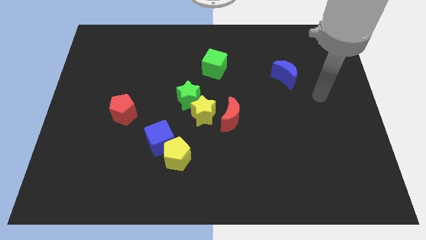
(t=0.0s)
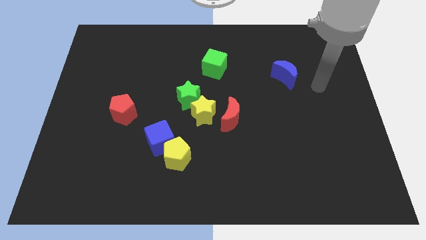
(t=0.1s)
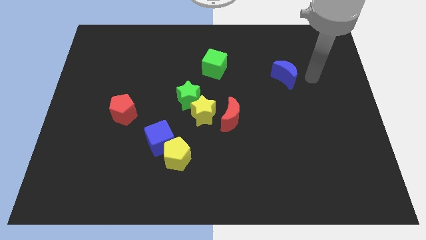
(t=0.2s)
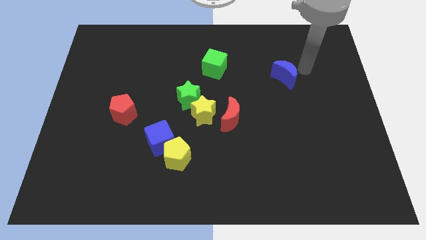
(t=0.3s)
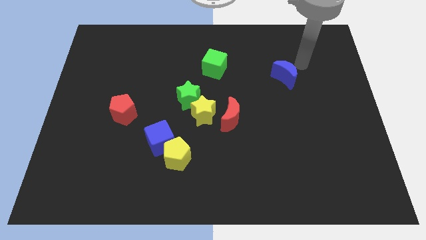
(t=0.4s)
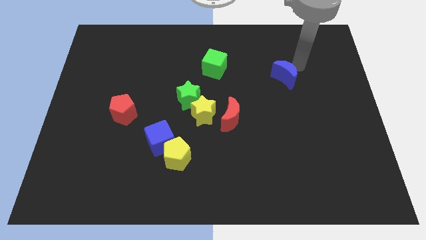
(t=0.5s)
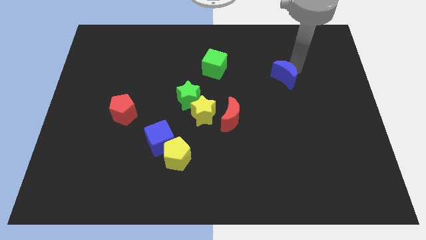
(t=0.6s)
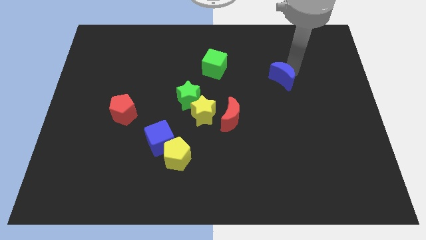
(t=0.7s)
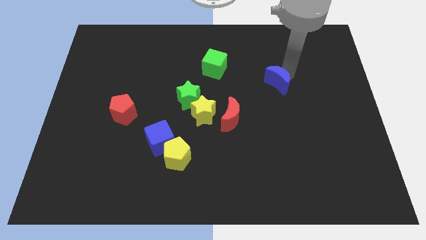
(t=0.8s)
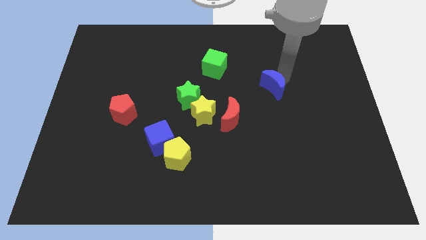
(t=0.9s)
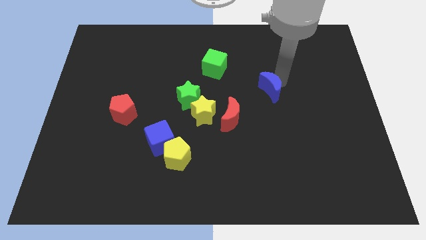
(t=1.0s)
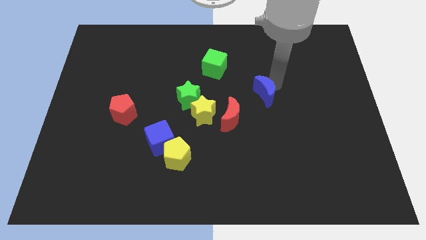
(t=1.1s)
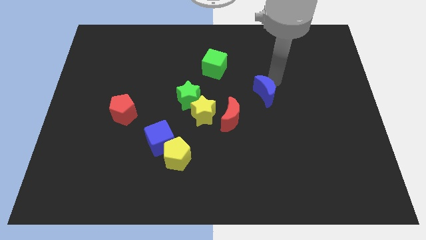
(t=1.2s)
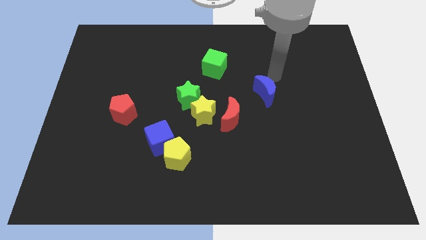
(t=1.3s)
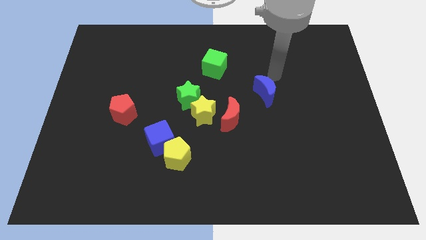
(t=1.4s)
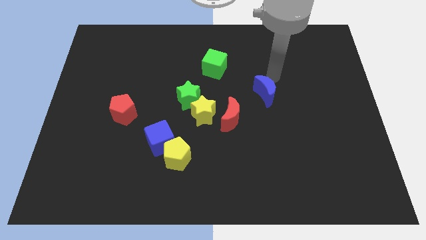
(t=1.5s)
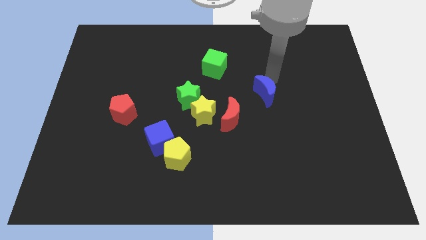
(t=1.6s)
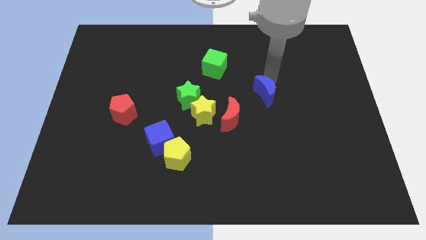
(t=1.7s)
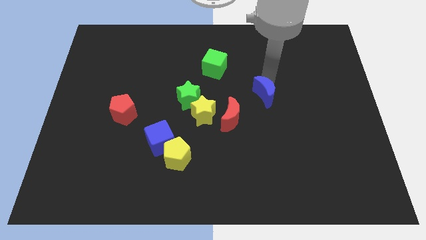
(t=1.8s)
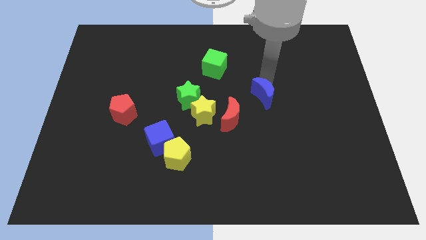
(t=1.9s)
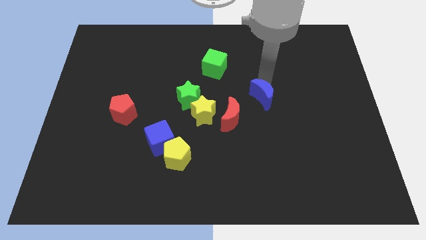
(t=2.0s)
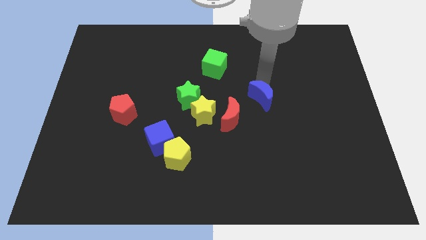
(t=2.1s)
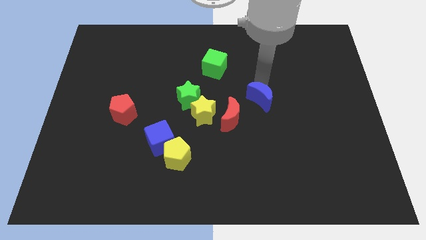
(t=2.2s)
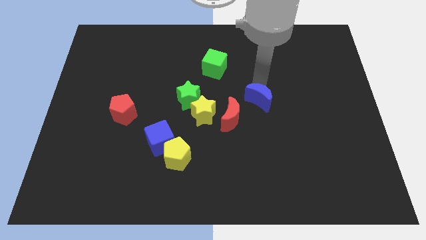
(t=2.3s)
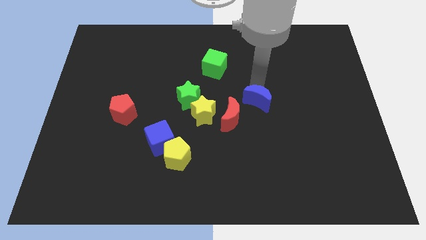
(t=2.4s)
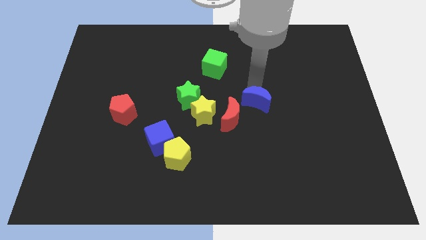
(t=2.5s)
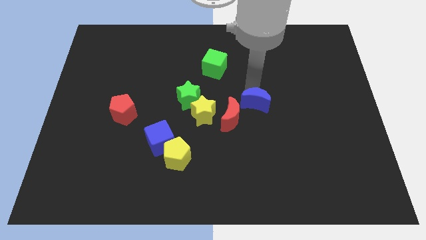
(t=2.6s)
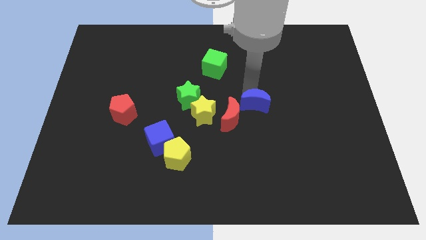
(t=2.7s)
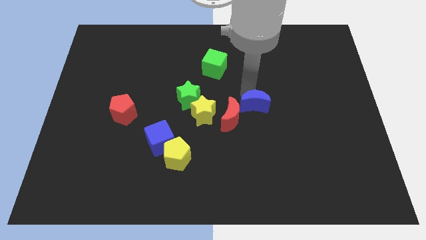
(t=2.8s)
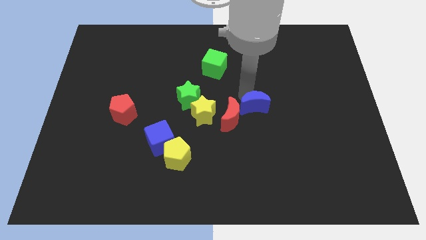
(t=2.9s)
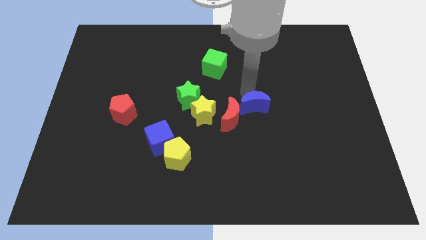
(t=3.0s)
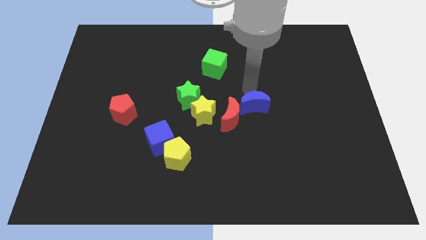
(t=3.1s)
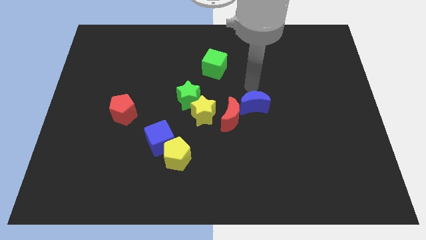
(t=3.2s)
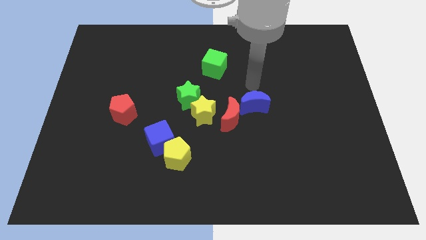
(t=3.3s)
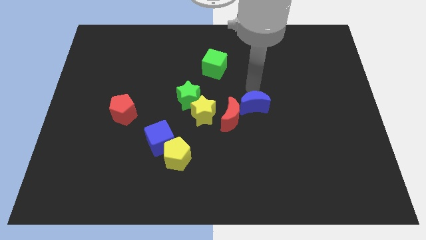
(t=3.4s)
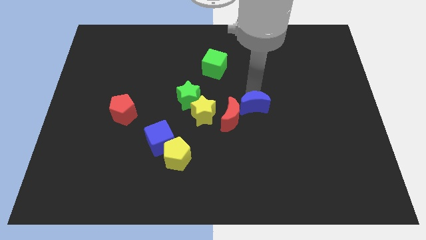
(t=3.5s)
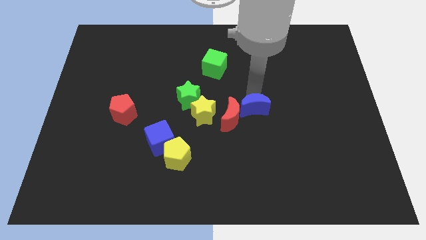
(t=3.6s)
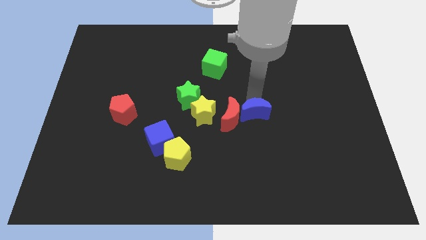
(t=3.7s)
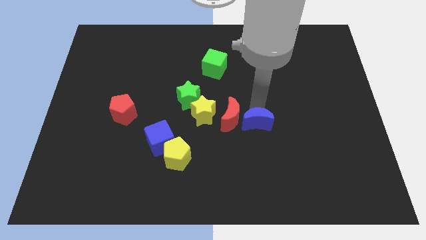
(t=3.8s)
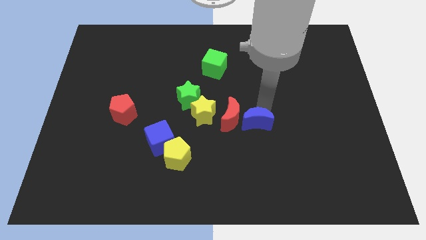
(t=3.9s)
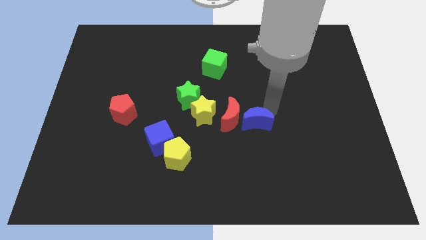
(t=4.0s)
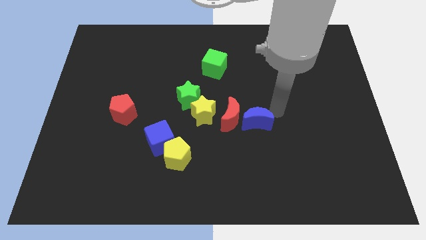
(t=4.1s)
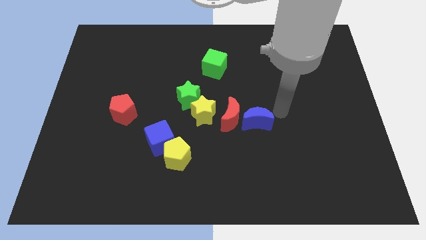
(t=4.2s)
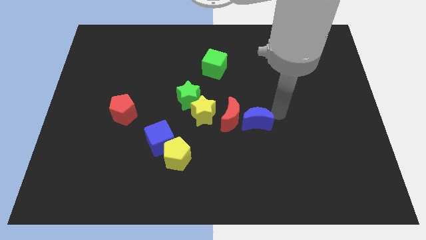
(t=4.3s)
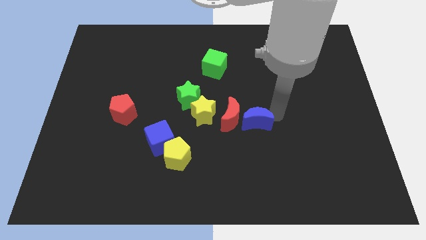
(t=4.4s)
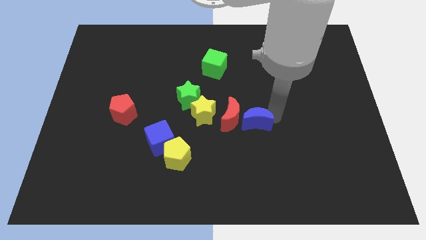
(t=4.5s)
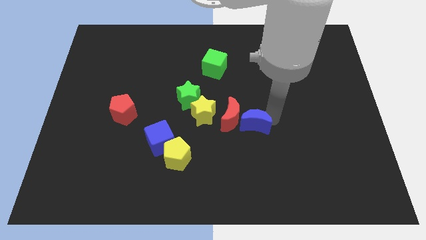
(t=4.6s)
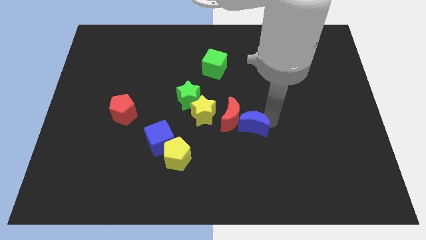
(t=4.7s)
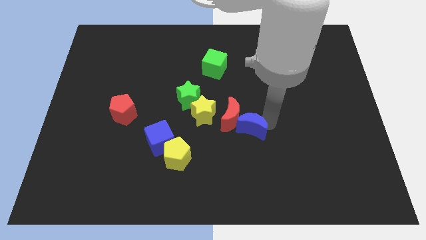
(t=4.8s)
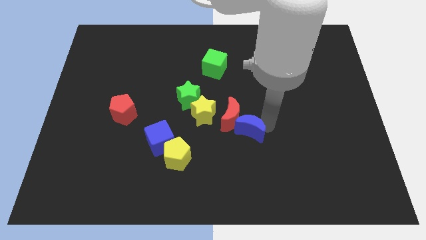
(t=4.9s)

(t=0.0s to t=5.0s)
slide the blue moon to the bottom right side of the yellow star

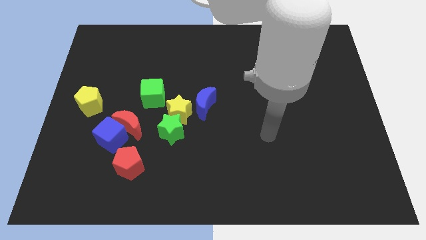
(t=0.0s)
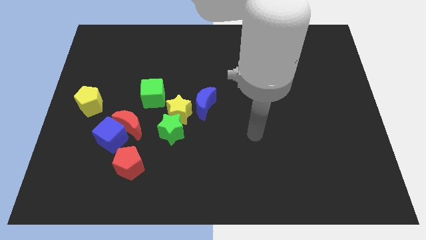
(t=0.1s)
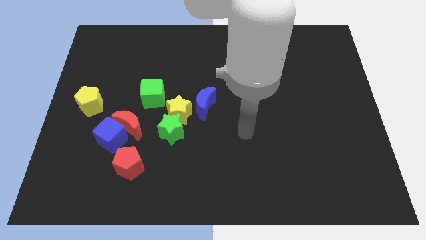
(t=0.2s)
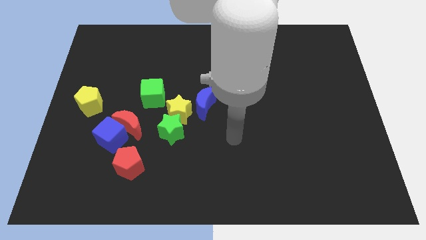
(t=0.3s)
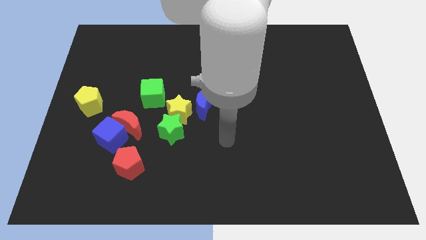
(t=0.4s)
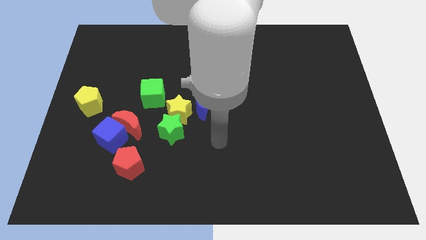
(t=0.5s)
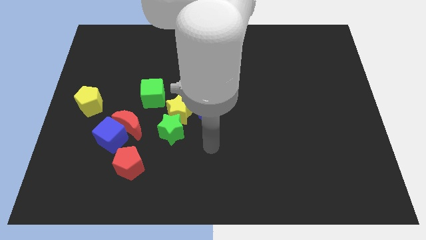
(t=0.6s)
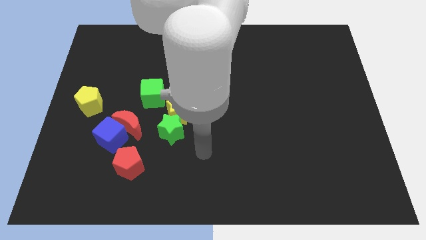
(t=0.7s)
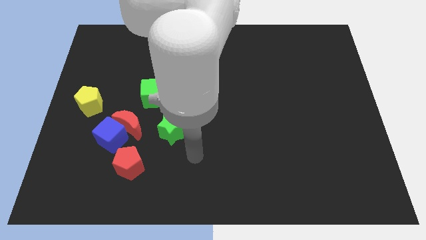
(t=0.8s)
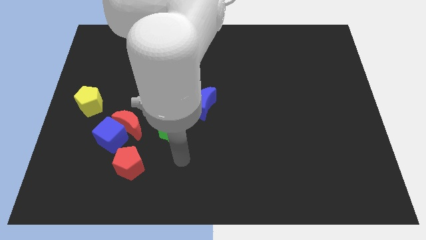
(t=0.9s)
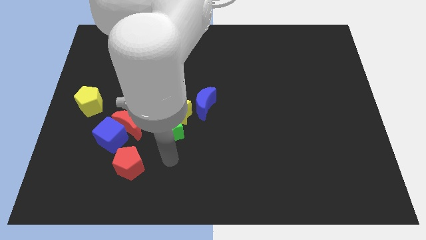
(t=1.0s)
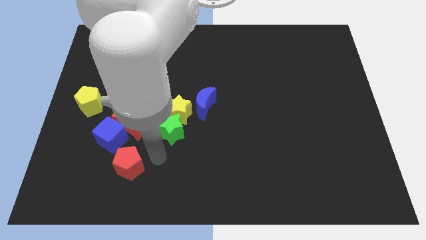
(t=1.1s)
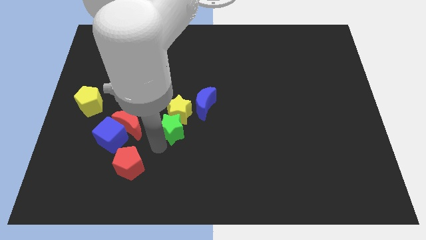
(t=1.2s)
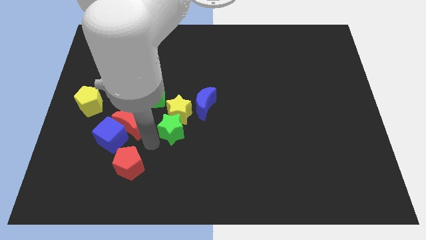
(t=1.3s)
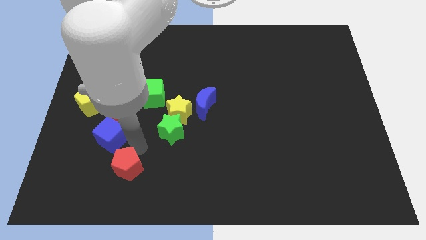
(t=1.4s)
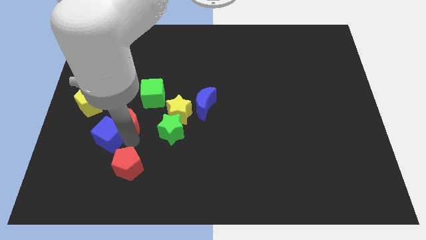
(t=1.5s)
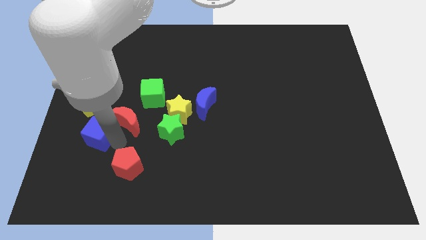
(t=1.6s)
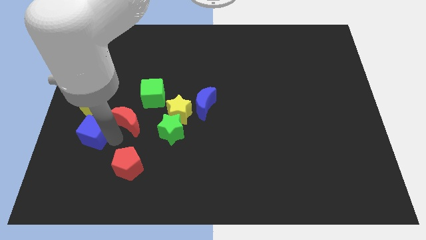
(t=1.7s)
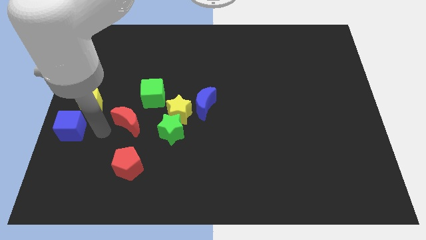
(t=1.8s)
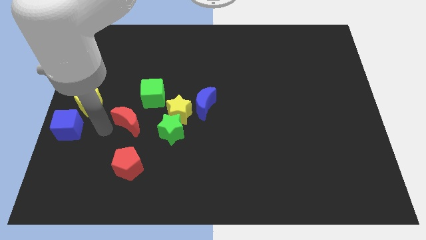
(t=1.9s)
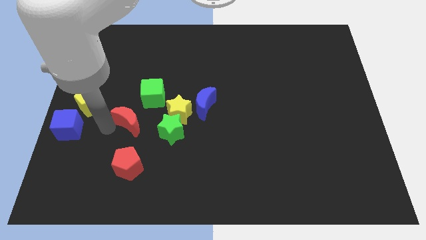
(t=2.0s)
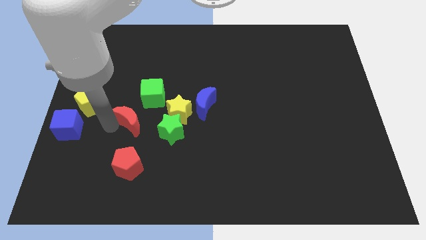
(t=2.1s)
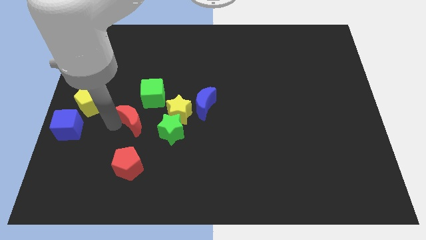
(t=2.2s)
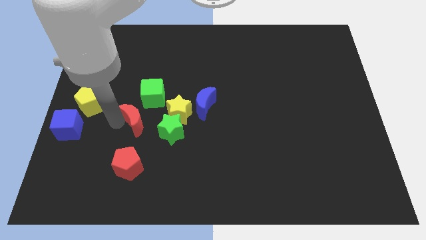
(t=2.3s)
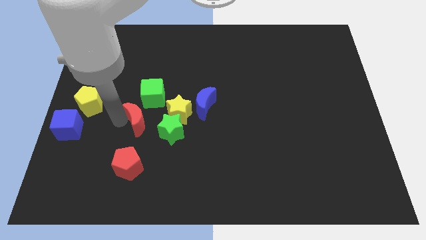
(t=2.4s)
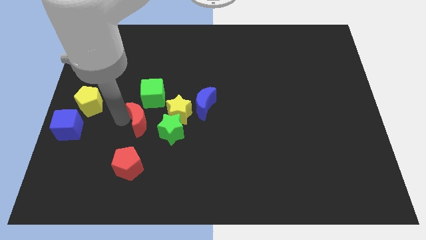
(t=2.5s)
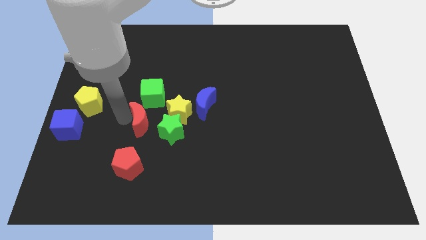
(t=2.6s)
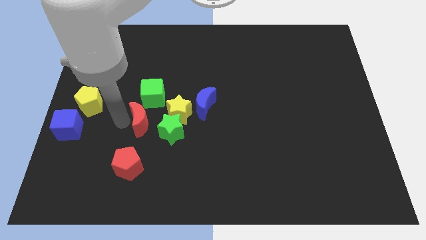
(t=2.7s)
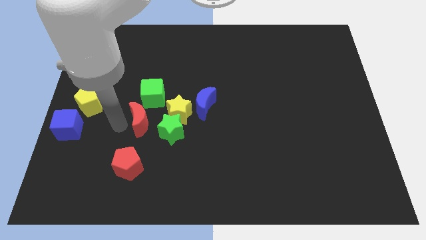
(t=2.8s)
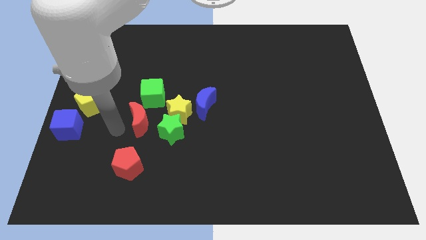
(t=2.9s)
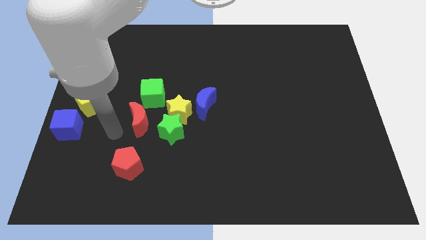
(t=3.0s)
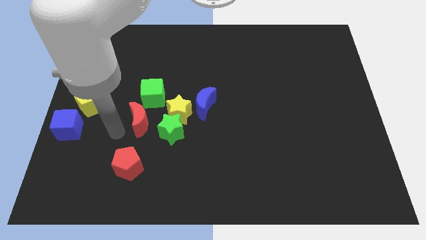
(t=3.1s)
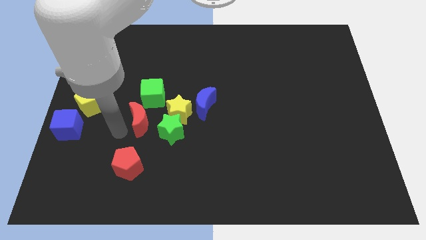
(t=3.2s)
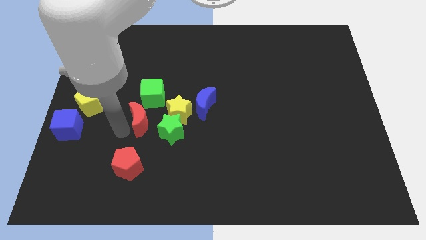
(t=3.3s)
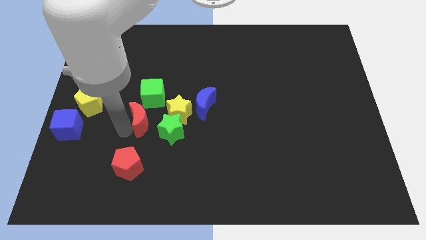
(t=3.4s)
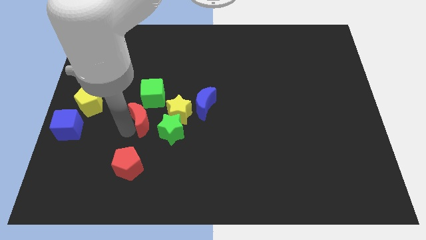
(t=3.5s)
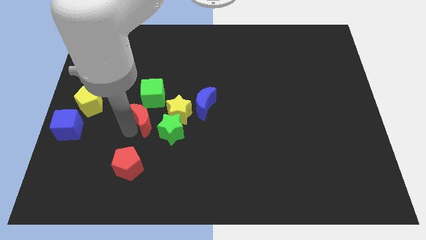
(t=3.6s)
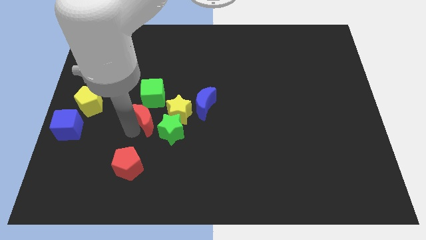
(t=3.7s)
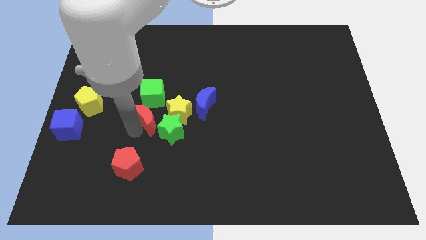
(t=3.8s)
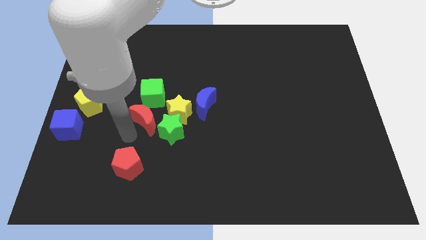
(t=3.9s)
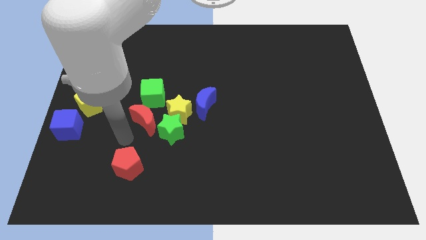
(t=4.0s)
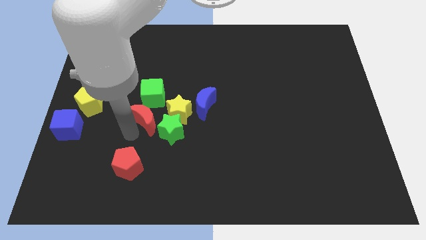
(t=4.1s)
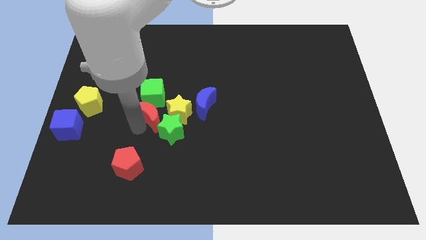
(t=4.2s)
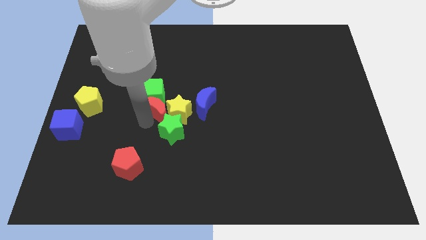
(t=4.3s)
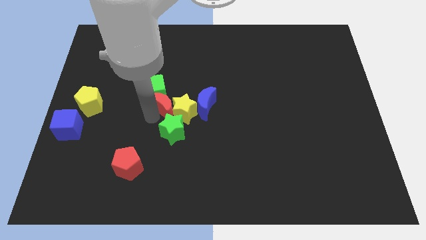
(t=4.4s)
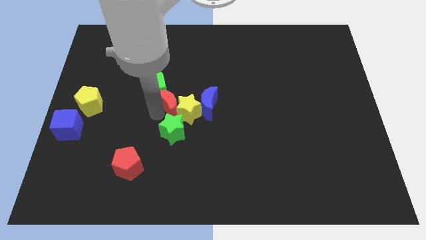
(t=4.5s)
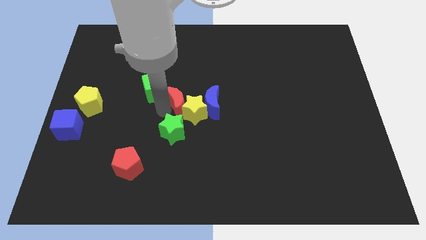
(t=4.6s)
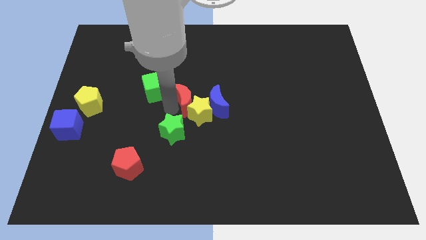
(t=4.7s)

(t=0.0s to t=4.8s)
push the red moon to the top left of the blue moon
